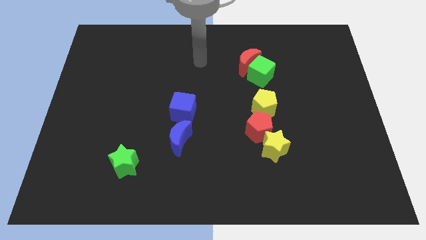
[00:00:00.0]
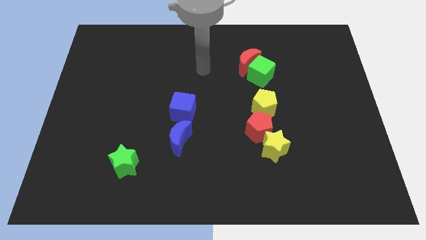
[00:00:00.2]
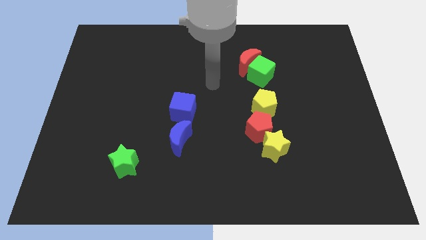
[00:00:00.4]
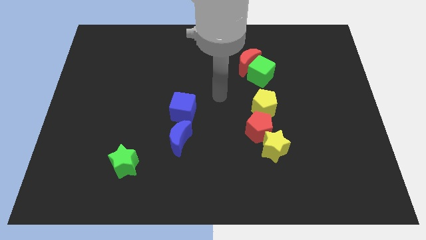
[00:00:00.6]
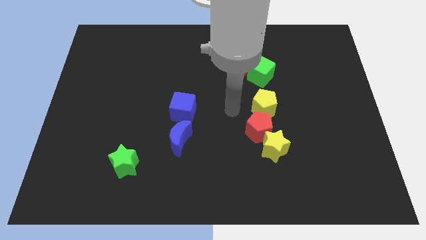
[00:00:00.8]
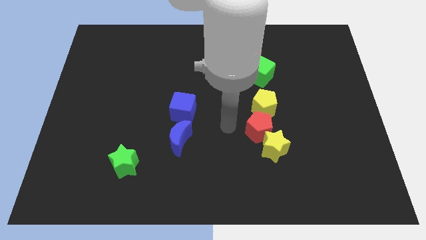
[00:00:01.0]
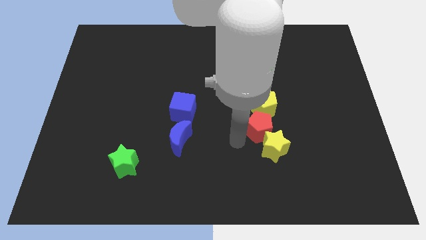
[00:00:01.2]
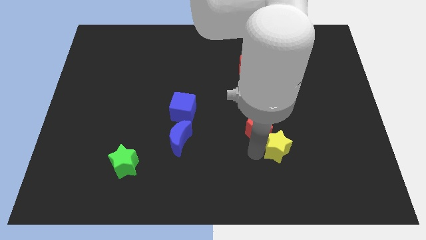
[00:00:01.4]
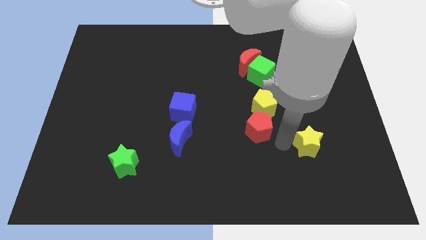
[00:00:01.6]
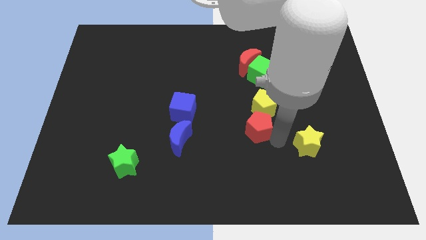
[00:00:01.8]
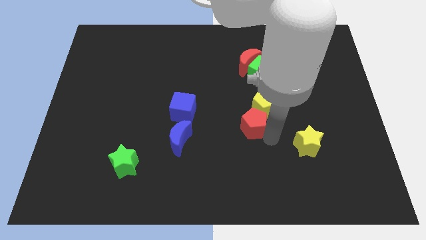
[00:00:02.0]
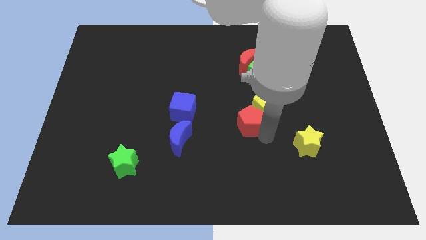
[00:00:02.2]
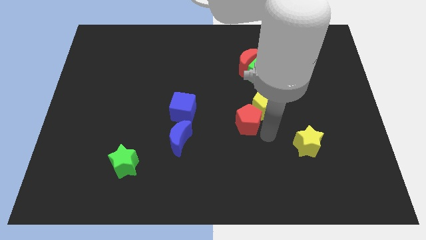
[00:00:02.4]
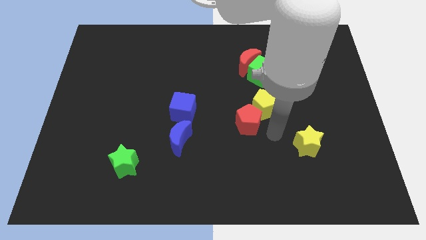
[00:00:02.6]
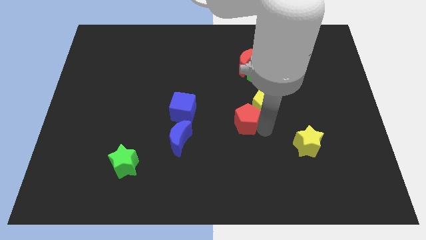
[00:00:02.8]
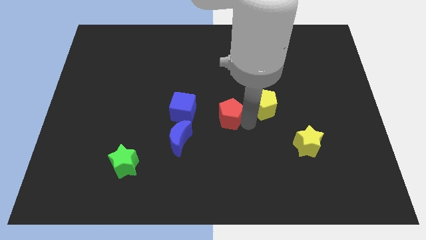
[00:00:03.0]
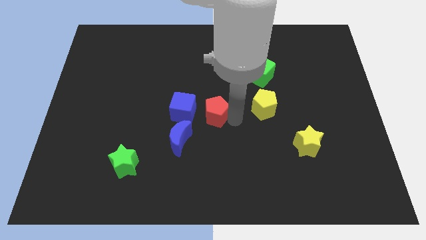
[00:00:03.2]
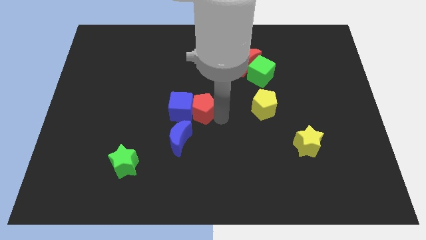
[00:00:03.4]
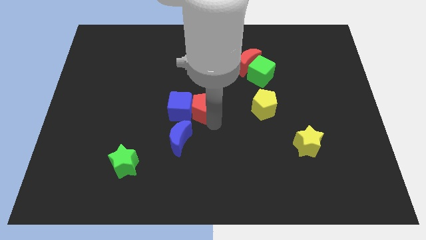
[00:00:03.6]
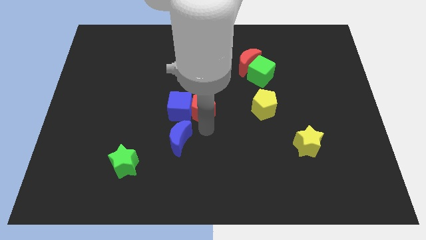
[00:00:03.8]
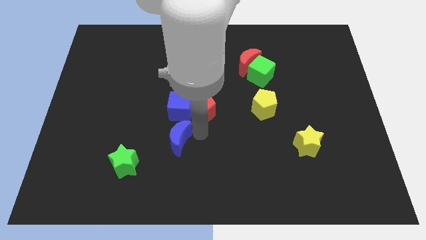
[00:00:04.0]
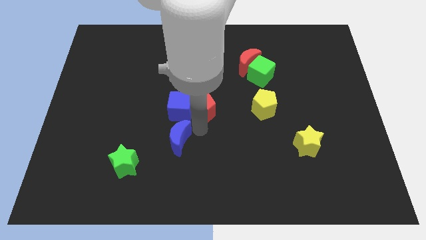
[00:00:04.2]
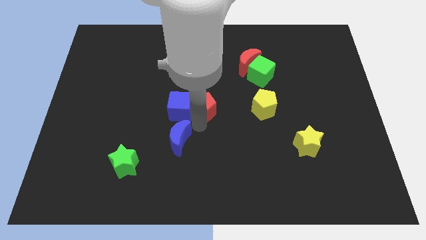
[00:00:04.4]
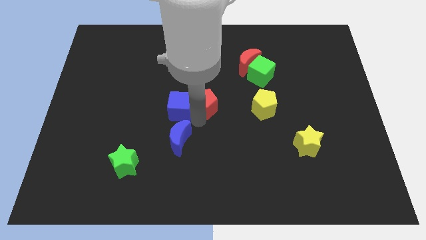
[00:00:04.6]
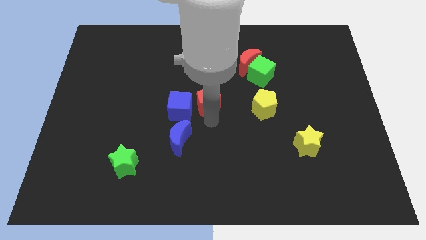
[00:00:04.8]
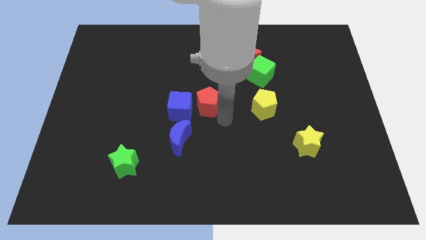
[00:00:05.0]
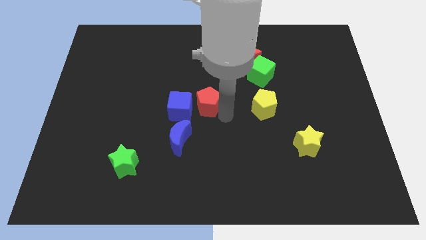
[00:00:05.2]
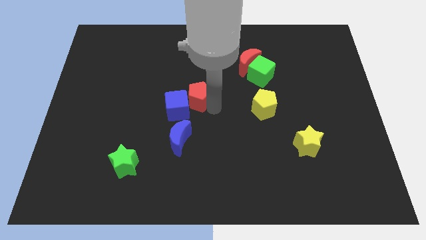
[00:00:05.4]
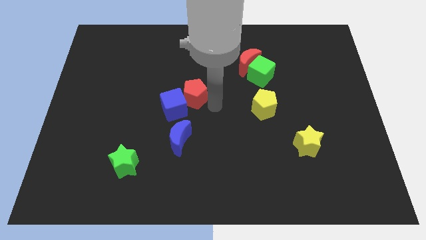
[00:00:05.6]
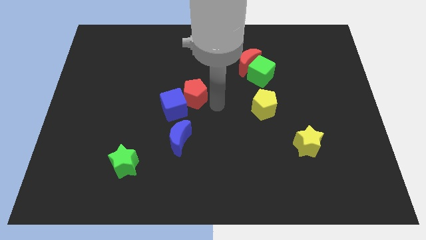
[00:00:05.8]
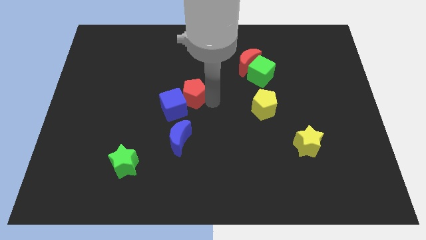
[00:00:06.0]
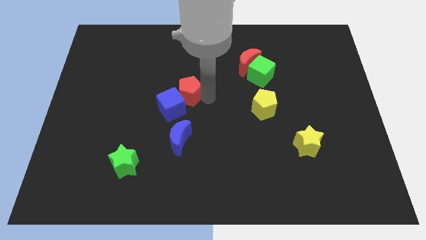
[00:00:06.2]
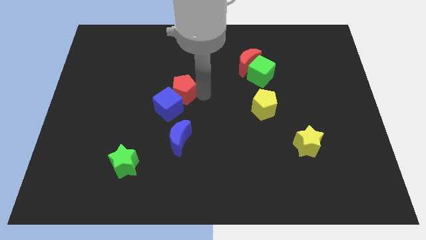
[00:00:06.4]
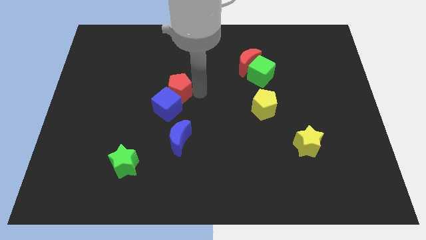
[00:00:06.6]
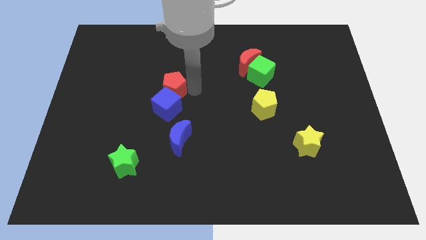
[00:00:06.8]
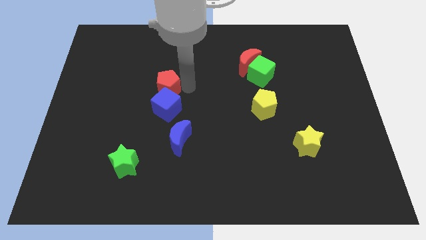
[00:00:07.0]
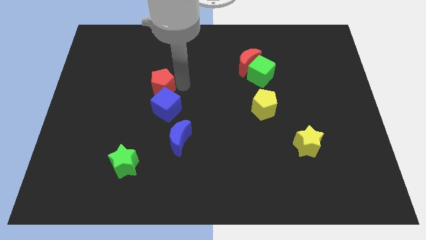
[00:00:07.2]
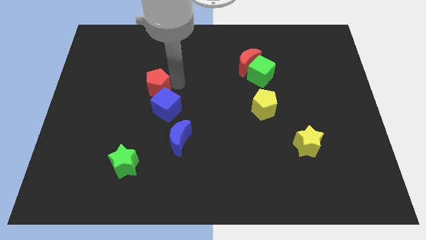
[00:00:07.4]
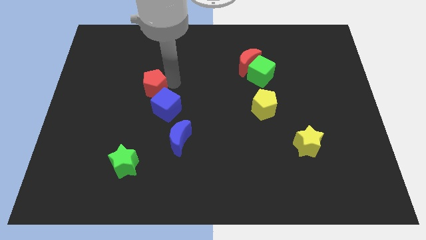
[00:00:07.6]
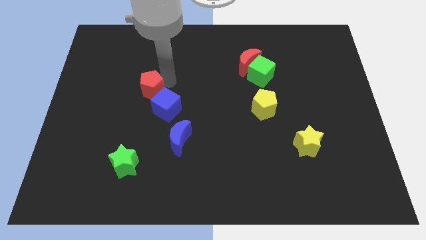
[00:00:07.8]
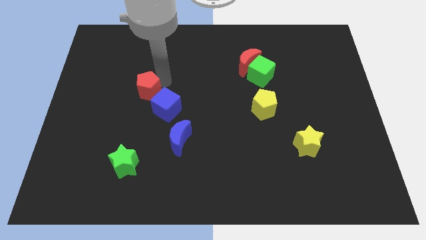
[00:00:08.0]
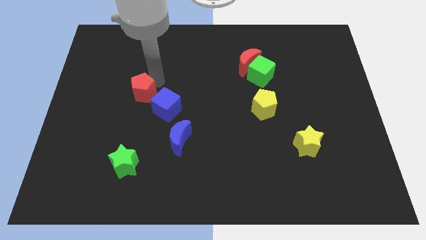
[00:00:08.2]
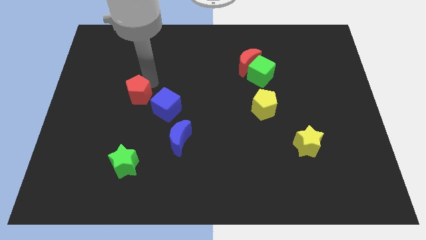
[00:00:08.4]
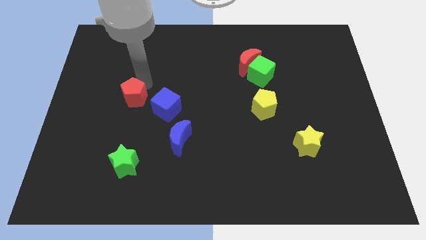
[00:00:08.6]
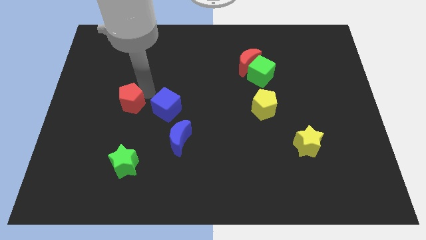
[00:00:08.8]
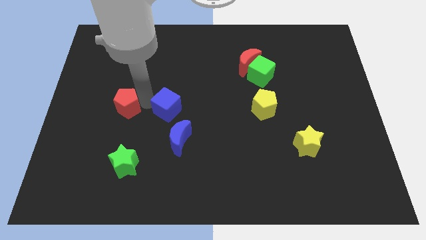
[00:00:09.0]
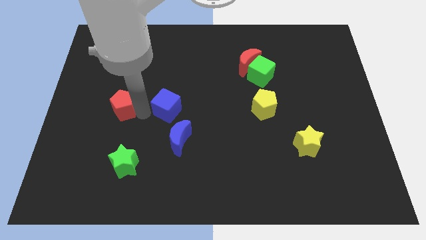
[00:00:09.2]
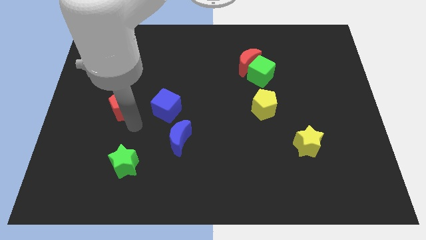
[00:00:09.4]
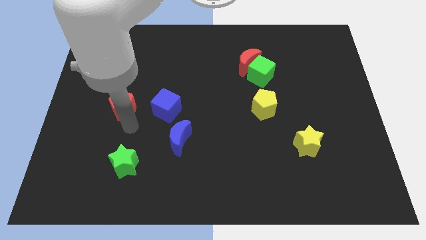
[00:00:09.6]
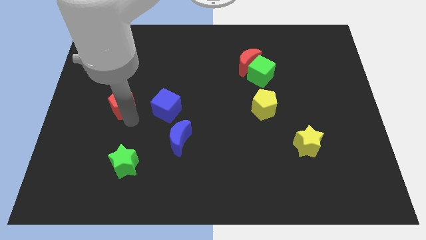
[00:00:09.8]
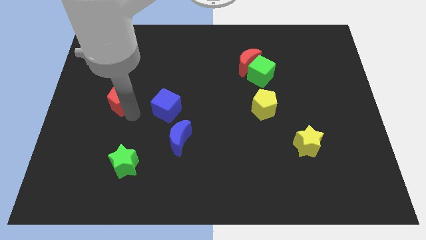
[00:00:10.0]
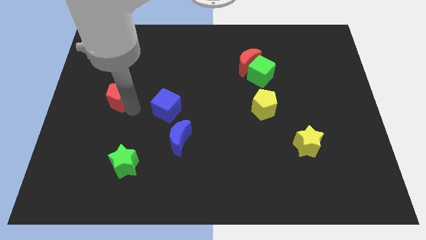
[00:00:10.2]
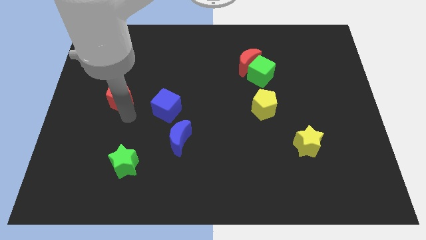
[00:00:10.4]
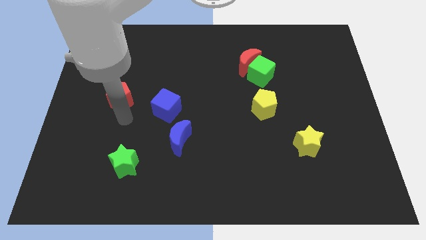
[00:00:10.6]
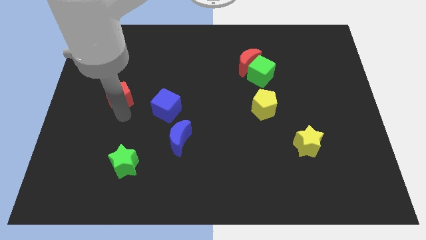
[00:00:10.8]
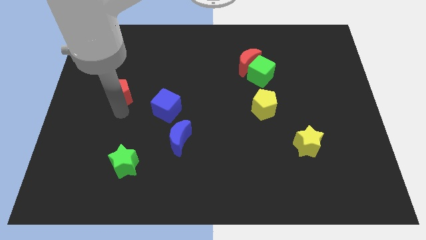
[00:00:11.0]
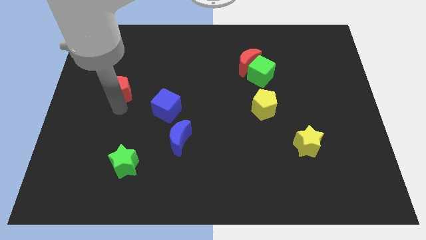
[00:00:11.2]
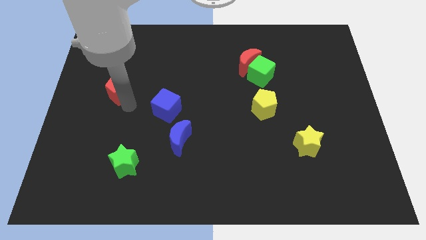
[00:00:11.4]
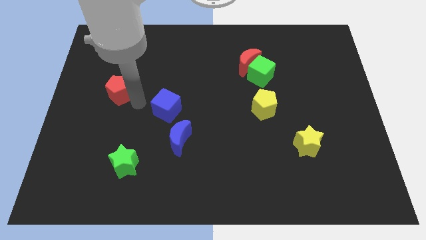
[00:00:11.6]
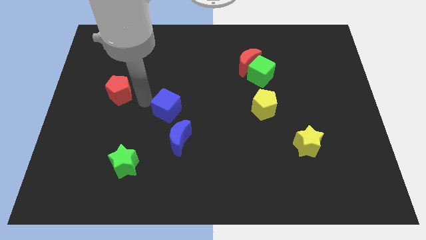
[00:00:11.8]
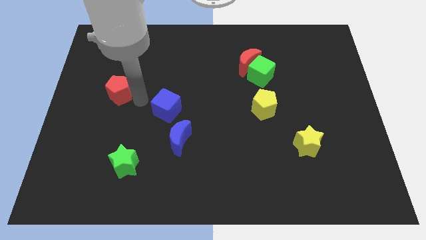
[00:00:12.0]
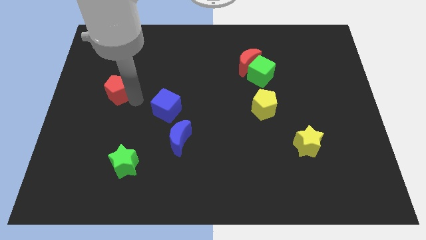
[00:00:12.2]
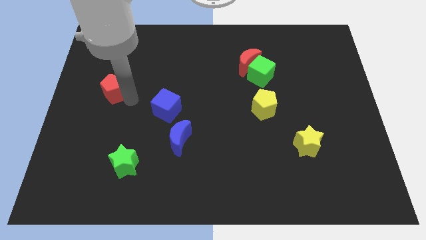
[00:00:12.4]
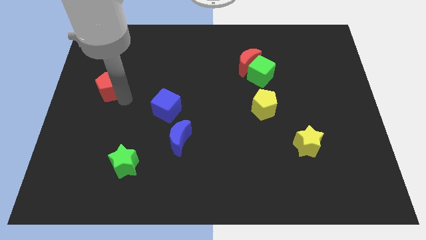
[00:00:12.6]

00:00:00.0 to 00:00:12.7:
move the red pentagon to the center left
